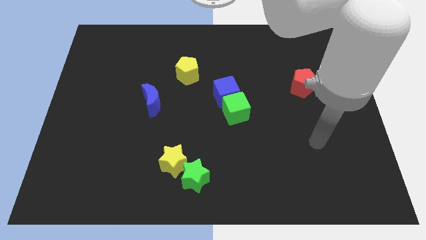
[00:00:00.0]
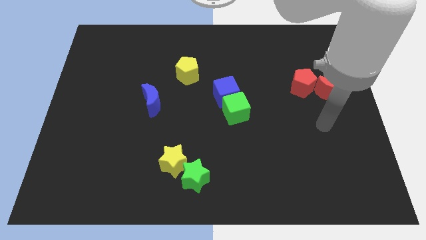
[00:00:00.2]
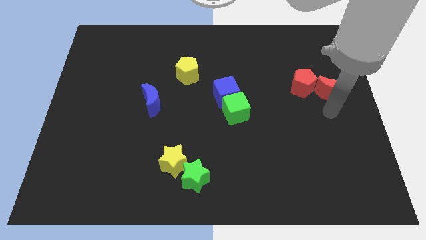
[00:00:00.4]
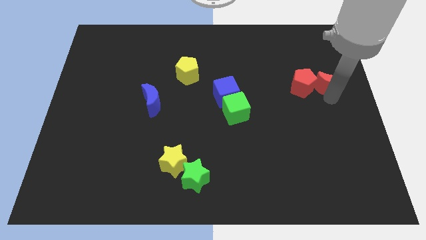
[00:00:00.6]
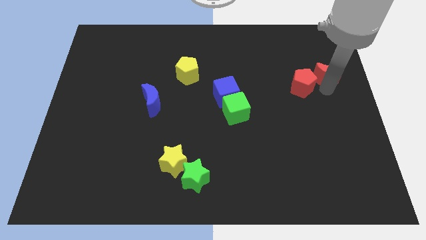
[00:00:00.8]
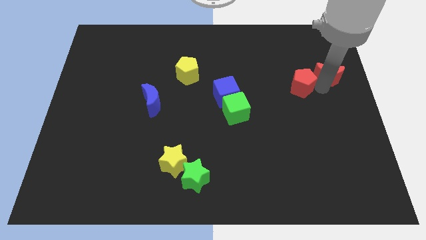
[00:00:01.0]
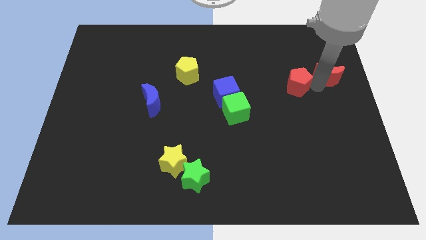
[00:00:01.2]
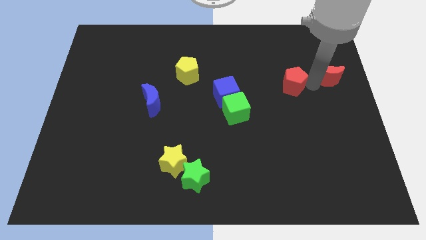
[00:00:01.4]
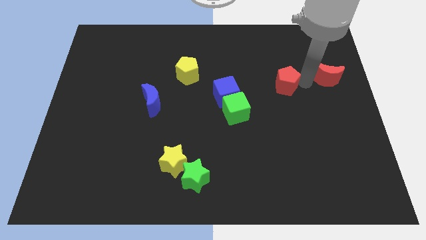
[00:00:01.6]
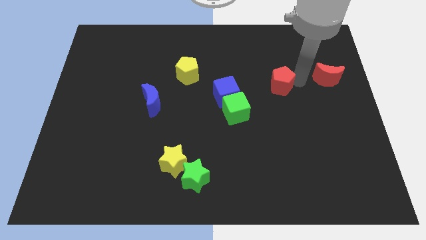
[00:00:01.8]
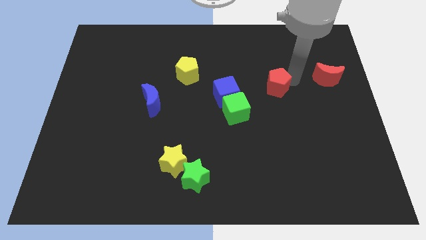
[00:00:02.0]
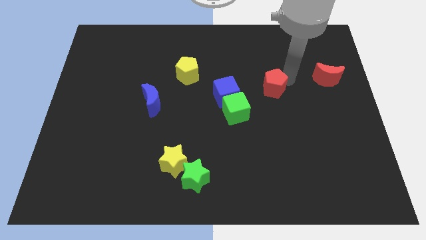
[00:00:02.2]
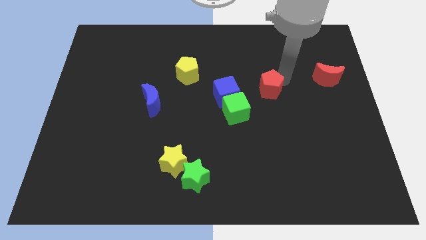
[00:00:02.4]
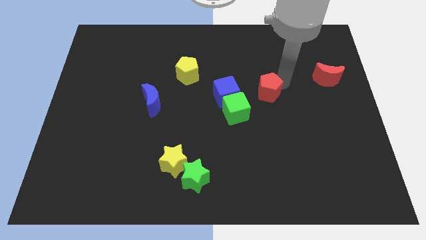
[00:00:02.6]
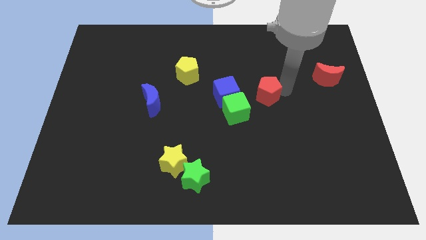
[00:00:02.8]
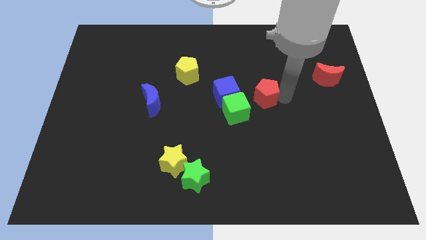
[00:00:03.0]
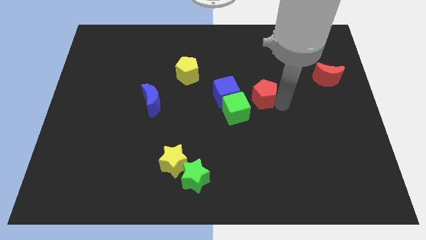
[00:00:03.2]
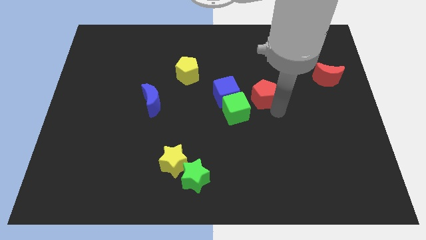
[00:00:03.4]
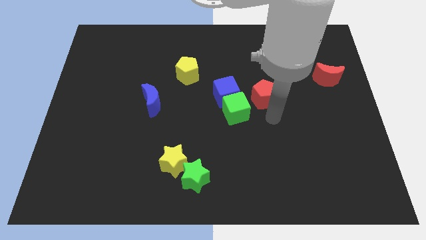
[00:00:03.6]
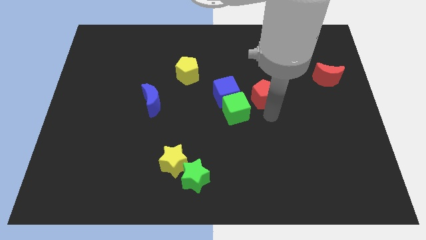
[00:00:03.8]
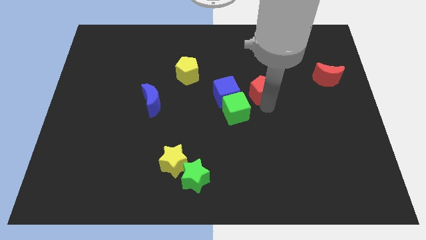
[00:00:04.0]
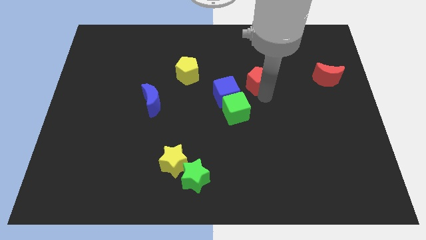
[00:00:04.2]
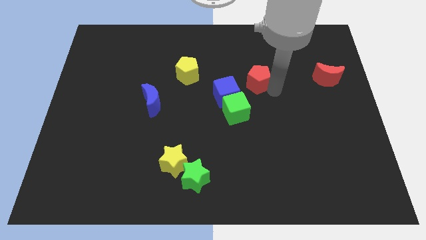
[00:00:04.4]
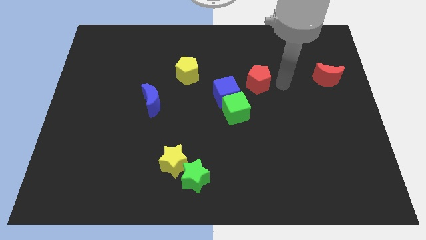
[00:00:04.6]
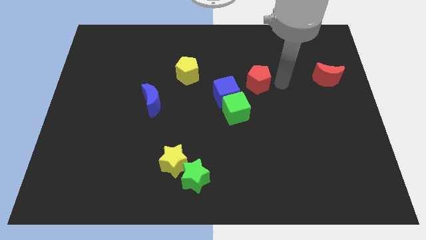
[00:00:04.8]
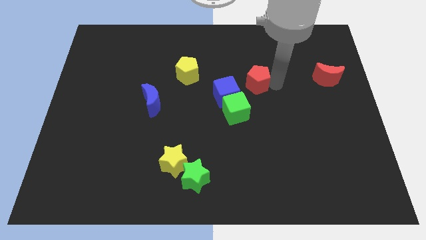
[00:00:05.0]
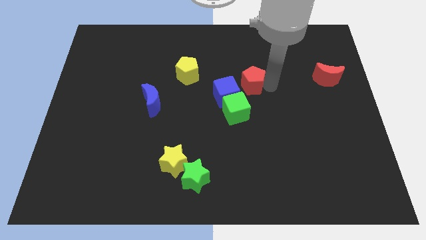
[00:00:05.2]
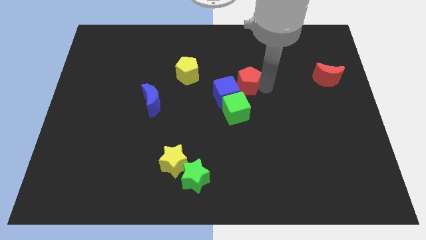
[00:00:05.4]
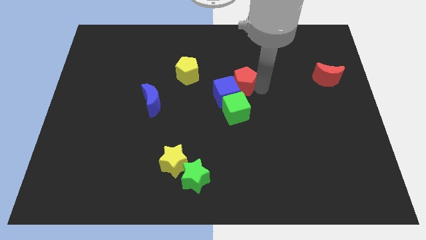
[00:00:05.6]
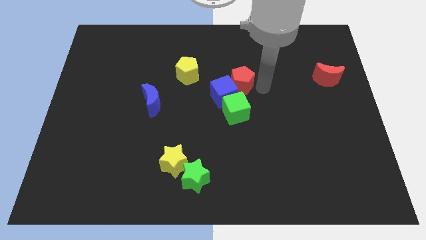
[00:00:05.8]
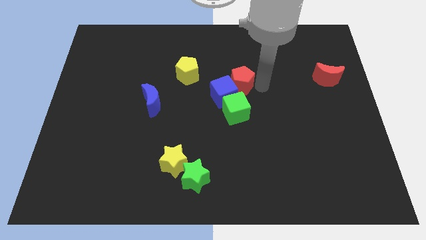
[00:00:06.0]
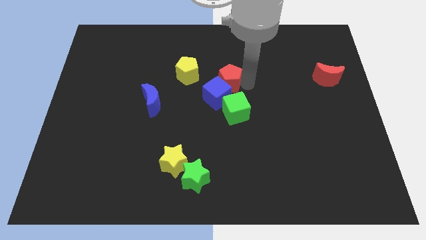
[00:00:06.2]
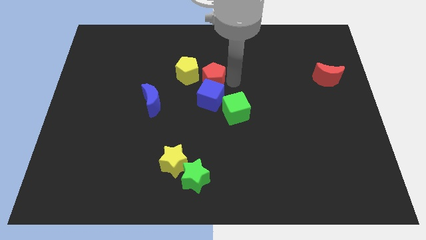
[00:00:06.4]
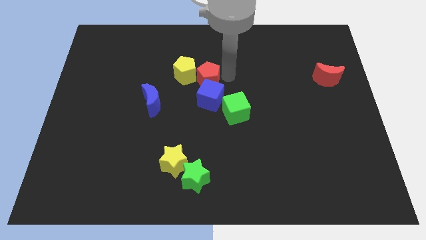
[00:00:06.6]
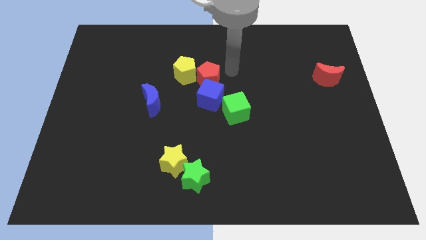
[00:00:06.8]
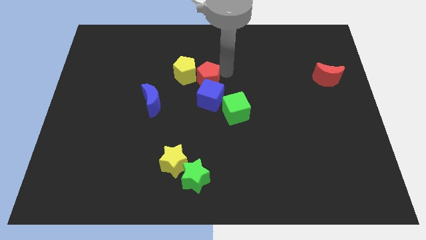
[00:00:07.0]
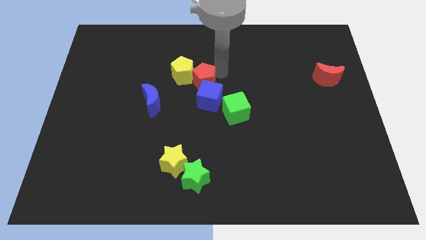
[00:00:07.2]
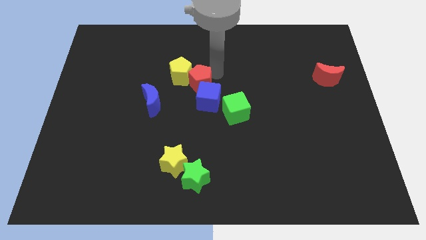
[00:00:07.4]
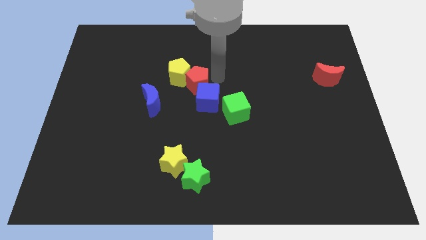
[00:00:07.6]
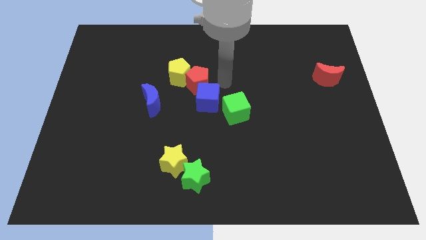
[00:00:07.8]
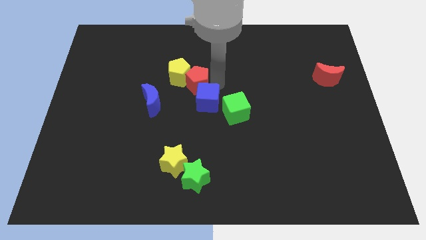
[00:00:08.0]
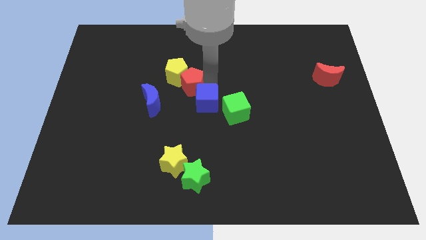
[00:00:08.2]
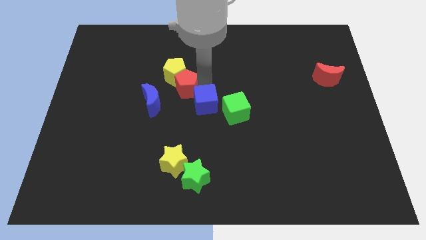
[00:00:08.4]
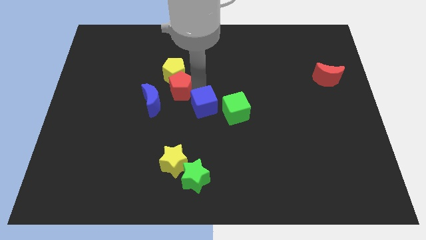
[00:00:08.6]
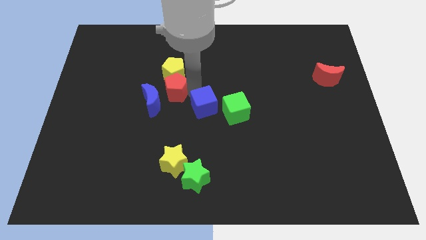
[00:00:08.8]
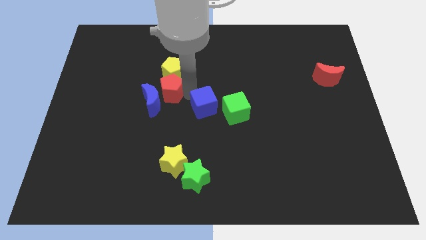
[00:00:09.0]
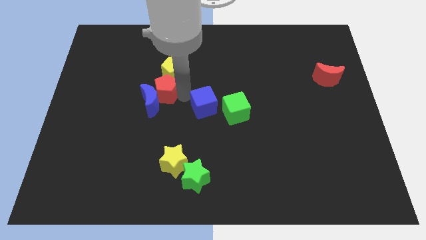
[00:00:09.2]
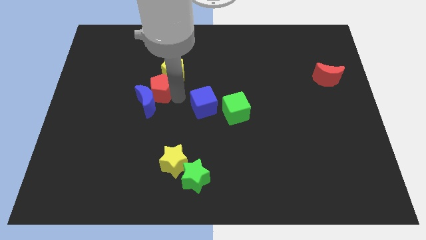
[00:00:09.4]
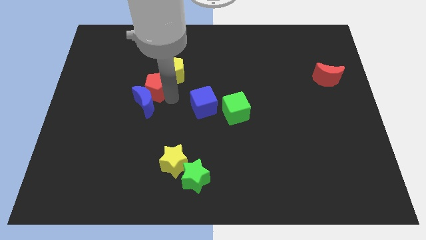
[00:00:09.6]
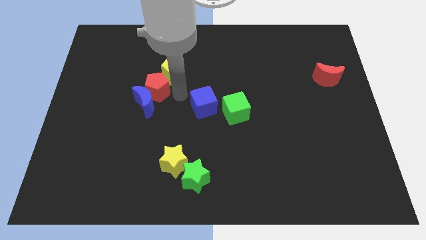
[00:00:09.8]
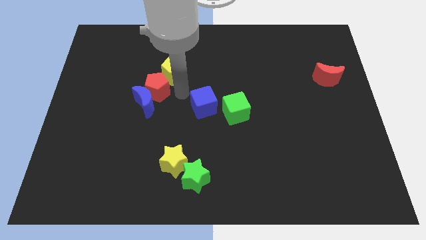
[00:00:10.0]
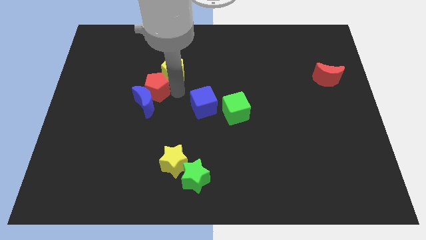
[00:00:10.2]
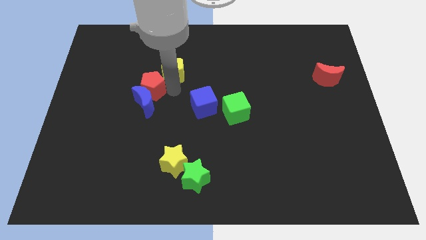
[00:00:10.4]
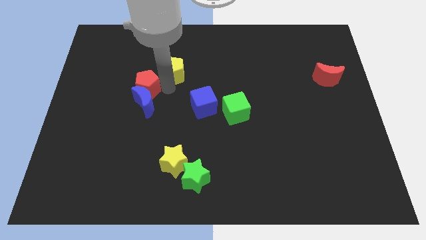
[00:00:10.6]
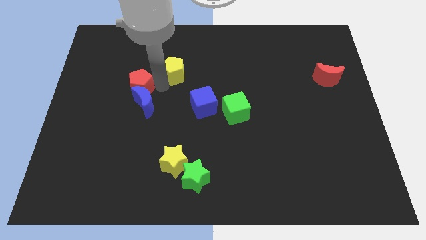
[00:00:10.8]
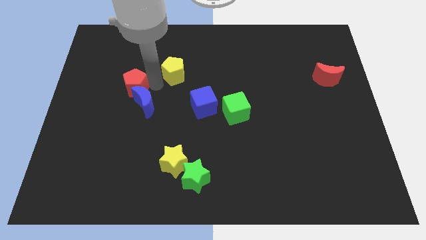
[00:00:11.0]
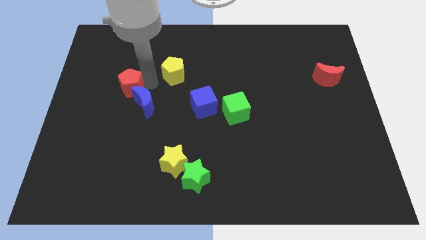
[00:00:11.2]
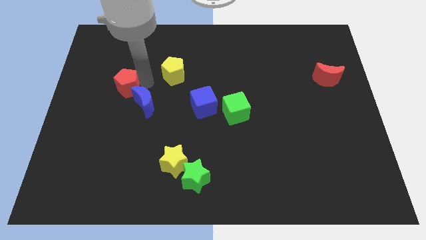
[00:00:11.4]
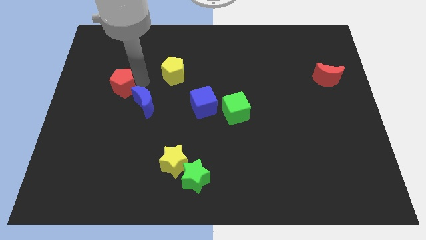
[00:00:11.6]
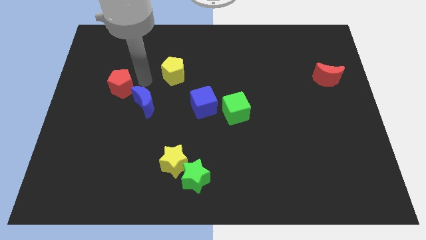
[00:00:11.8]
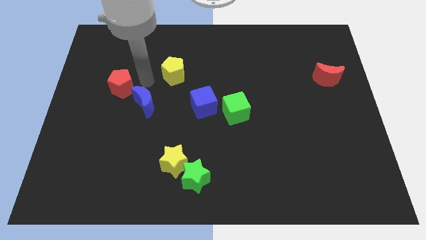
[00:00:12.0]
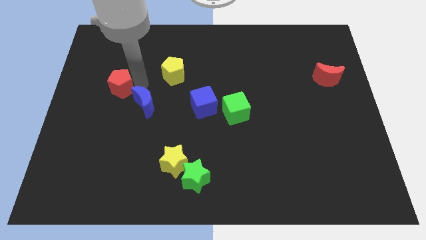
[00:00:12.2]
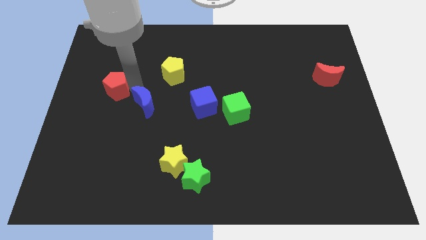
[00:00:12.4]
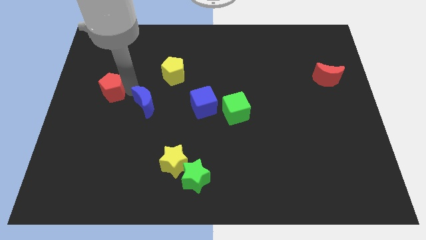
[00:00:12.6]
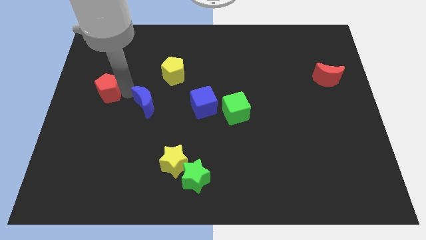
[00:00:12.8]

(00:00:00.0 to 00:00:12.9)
move the red pentagon to the center left
